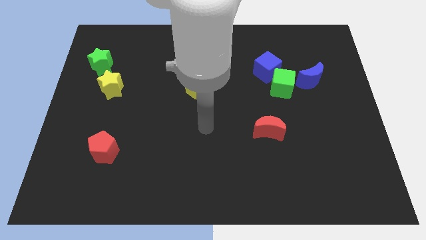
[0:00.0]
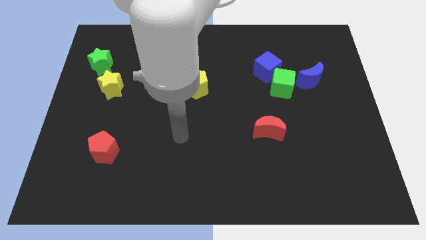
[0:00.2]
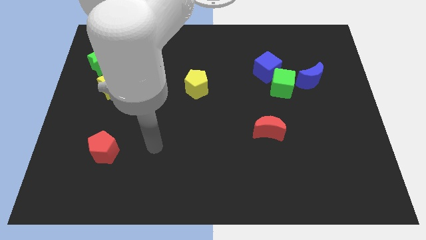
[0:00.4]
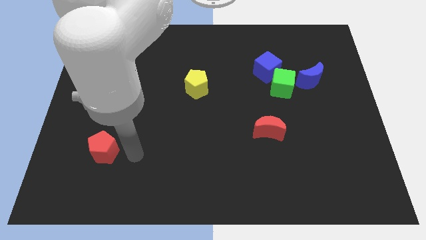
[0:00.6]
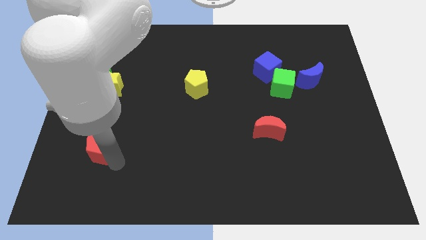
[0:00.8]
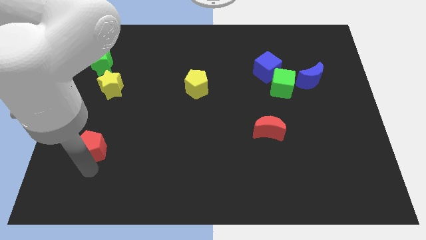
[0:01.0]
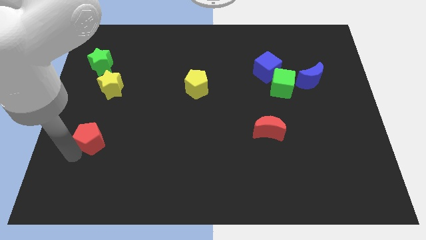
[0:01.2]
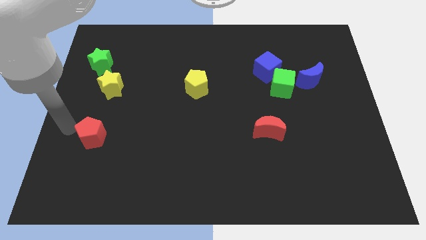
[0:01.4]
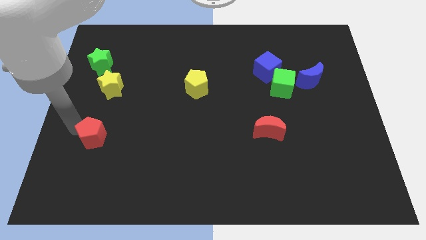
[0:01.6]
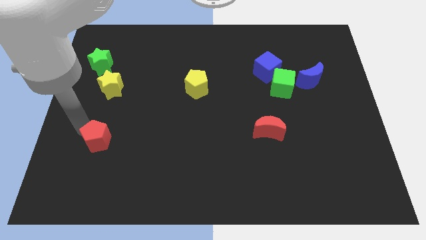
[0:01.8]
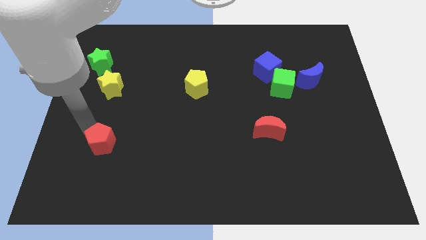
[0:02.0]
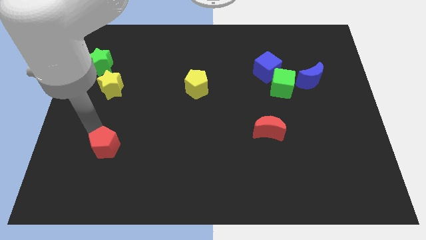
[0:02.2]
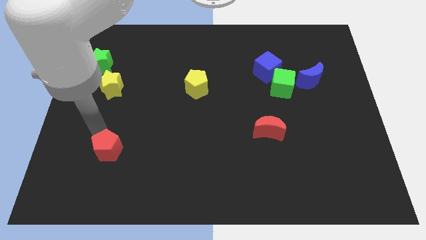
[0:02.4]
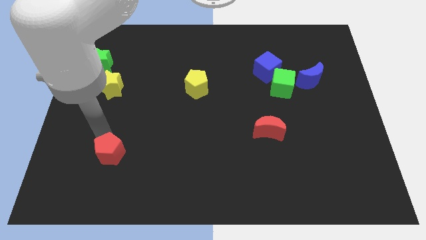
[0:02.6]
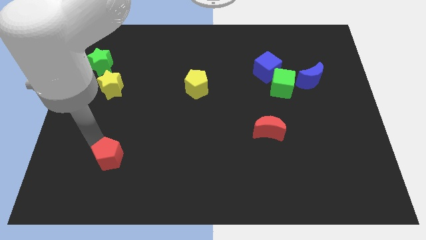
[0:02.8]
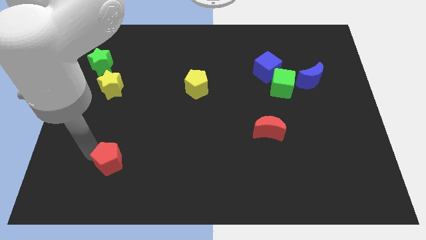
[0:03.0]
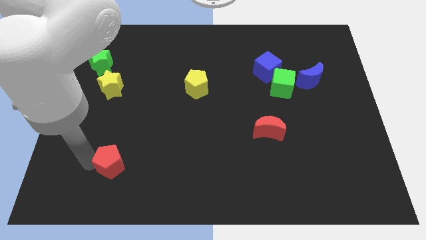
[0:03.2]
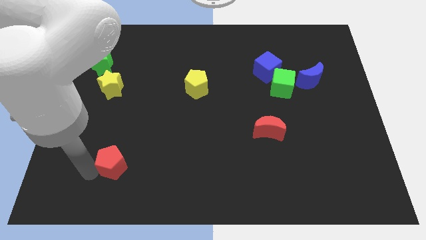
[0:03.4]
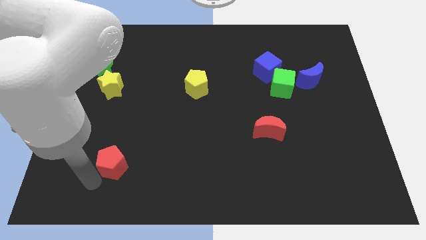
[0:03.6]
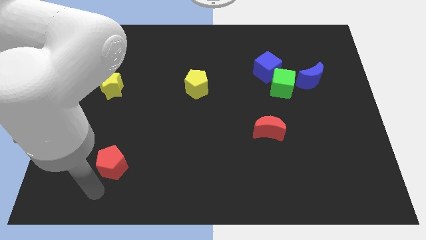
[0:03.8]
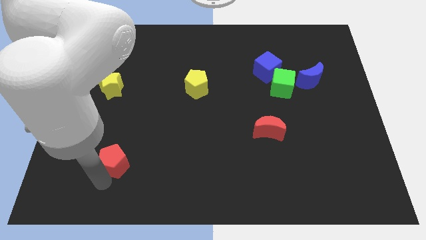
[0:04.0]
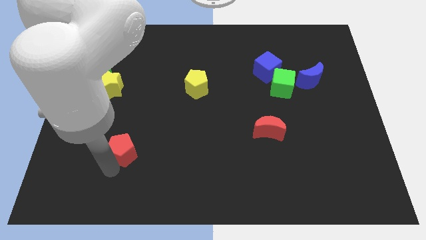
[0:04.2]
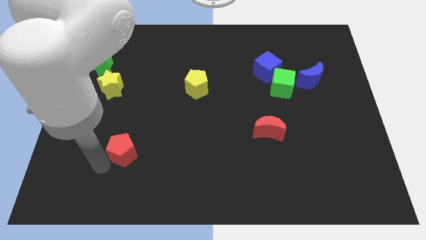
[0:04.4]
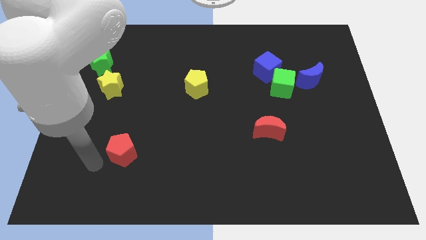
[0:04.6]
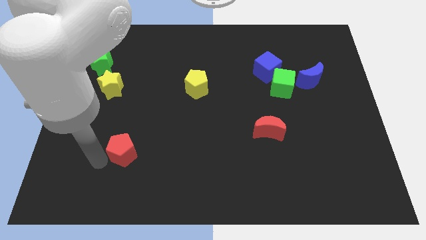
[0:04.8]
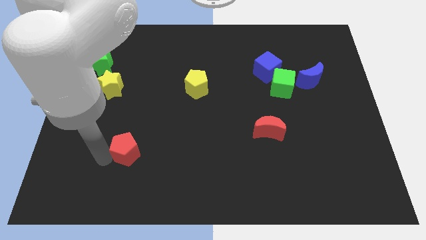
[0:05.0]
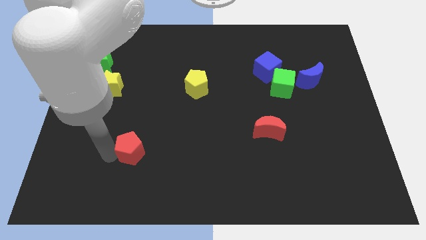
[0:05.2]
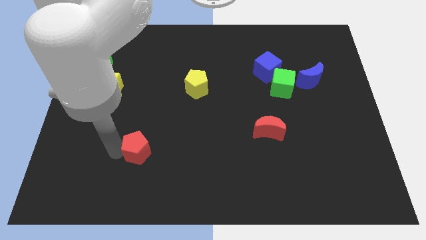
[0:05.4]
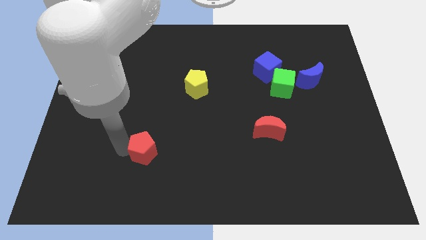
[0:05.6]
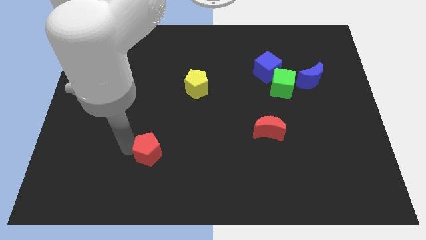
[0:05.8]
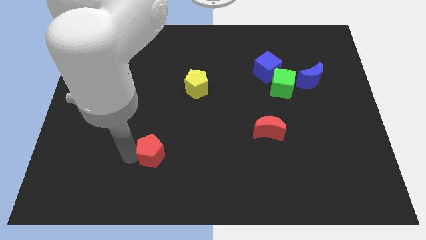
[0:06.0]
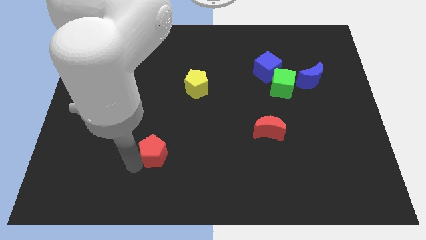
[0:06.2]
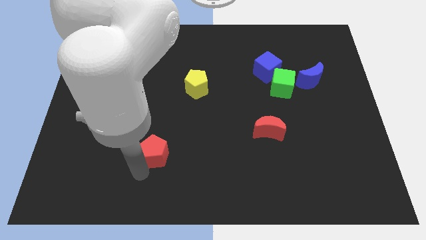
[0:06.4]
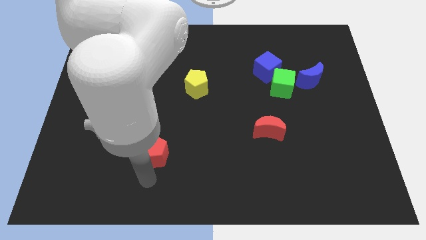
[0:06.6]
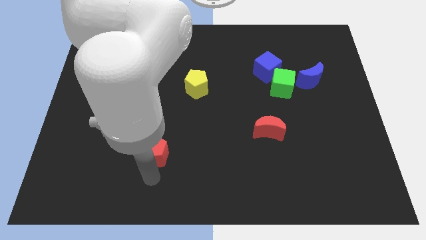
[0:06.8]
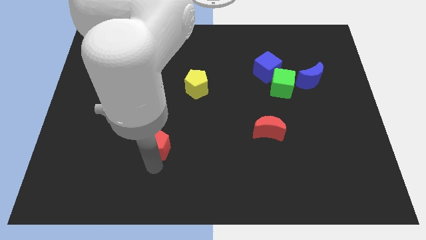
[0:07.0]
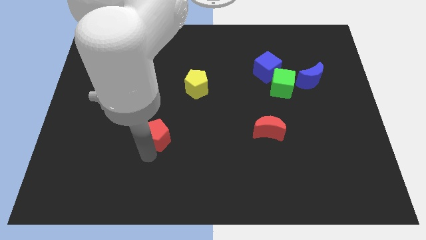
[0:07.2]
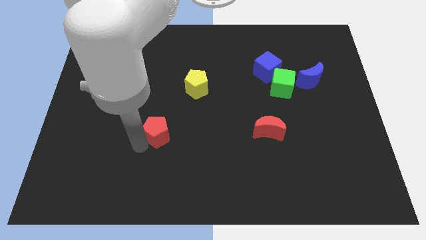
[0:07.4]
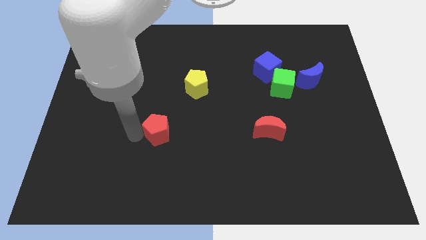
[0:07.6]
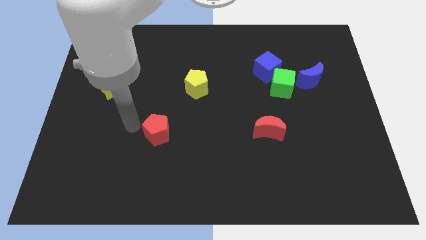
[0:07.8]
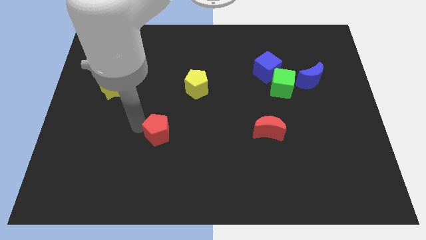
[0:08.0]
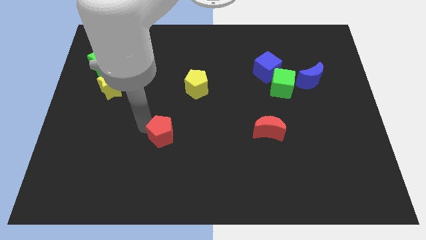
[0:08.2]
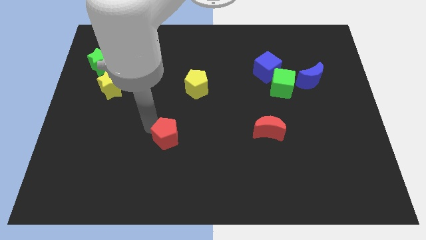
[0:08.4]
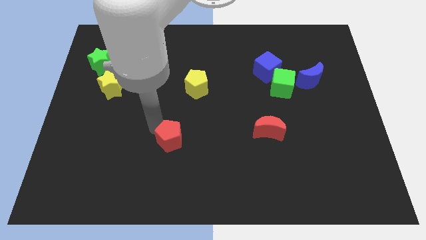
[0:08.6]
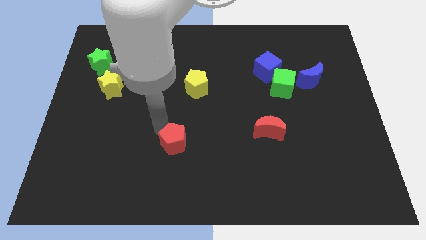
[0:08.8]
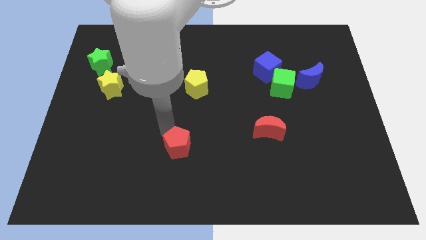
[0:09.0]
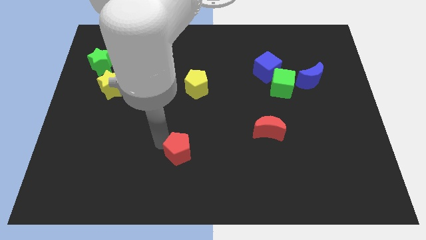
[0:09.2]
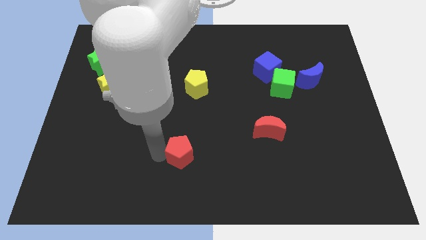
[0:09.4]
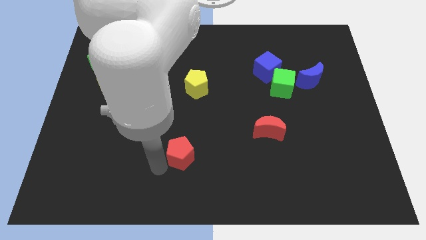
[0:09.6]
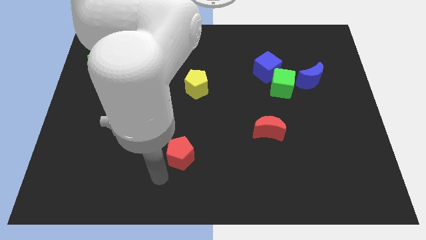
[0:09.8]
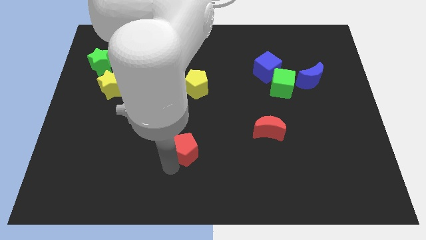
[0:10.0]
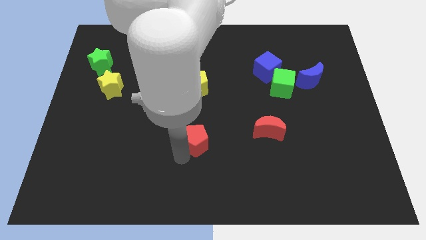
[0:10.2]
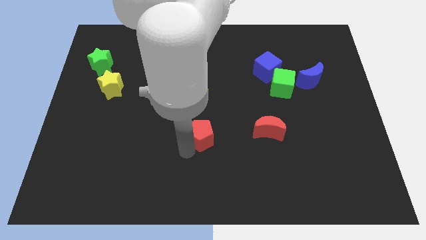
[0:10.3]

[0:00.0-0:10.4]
slide the red pentagon to the left side of the red moon

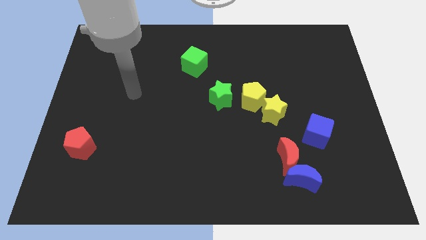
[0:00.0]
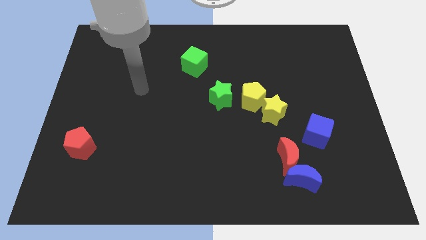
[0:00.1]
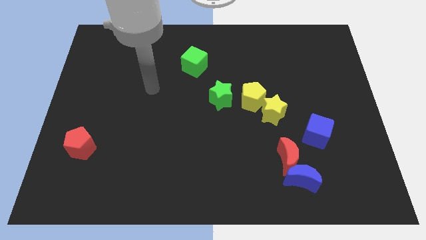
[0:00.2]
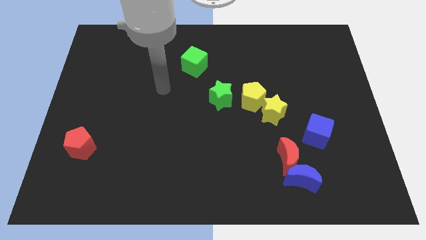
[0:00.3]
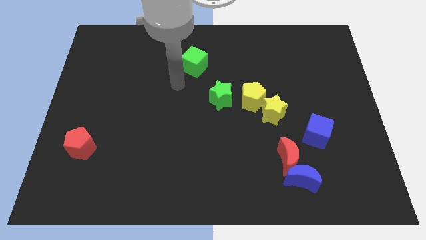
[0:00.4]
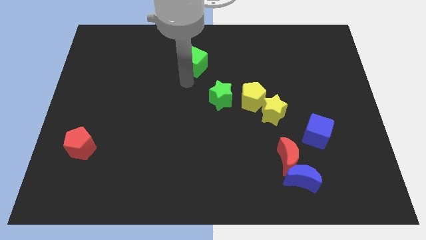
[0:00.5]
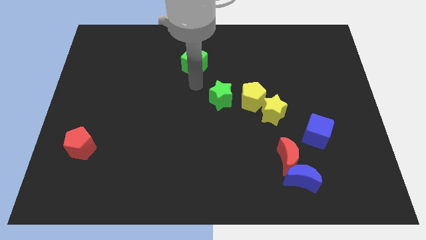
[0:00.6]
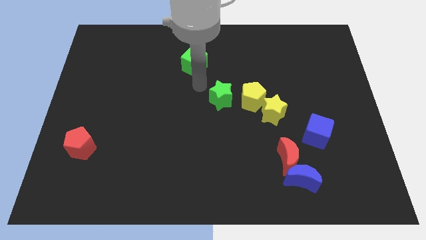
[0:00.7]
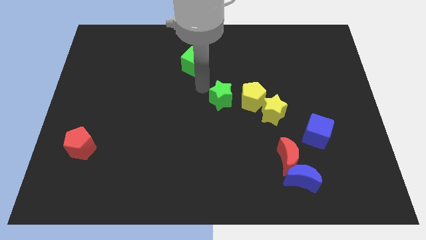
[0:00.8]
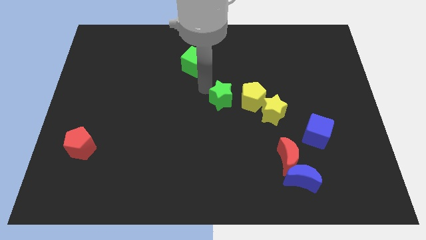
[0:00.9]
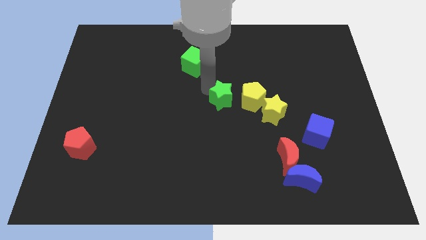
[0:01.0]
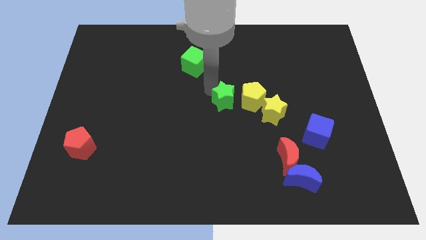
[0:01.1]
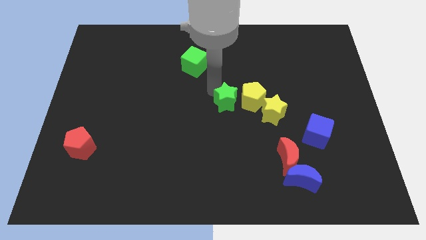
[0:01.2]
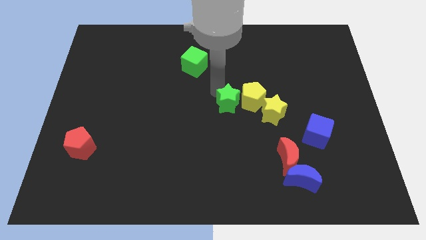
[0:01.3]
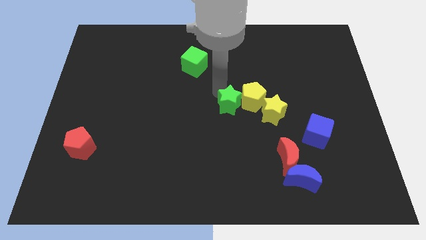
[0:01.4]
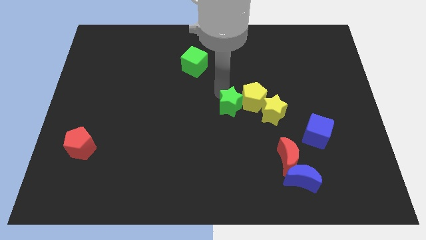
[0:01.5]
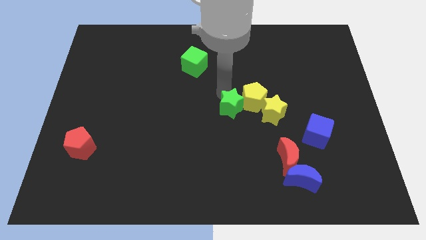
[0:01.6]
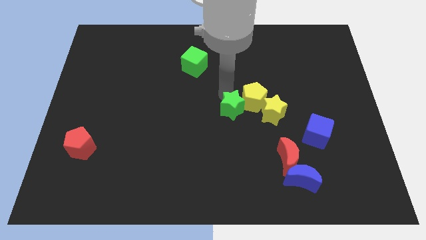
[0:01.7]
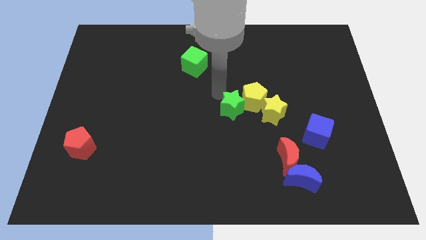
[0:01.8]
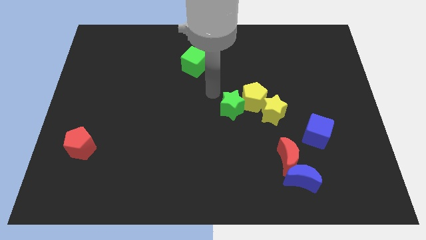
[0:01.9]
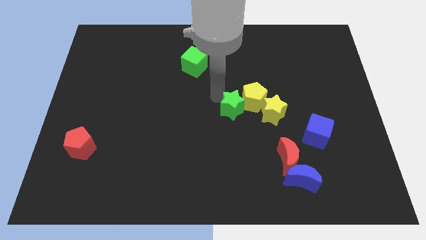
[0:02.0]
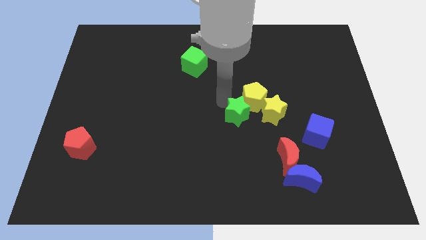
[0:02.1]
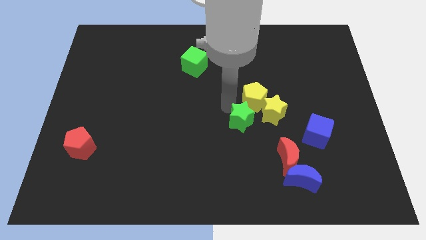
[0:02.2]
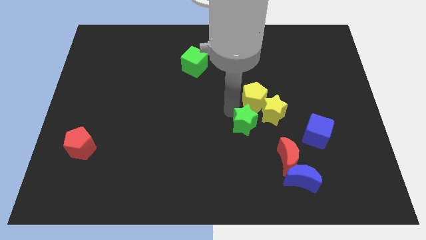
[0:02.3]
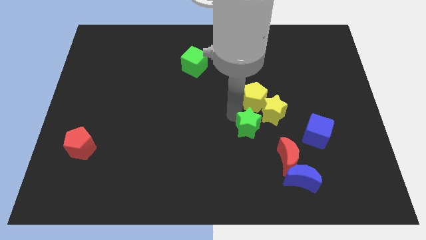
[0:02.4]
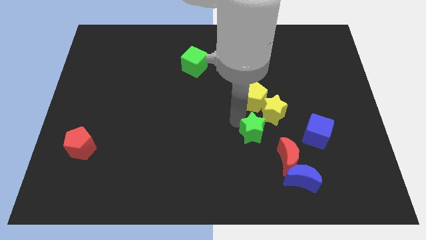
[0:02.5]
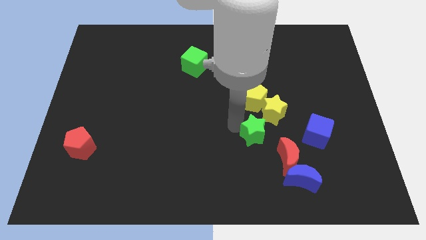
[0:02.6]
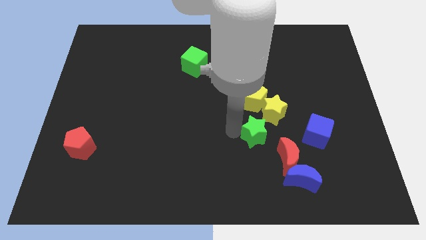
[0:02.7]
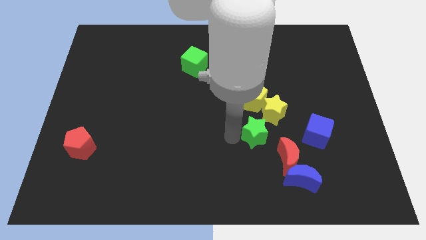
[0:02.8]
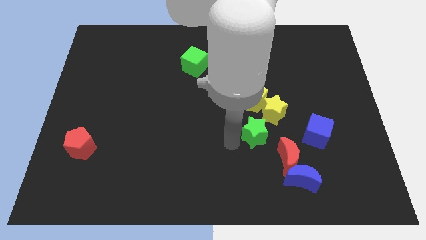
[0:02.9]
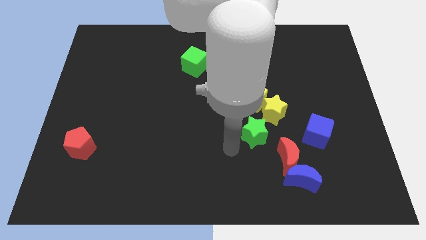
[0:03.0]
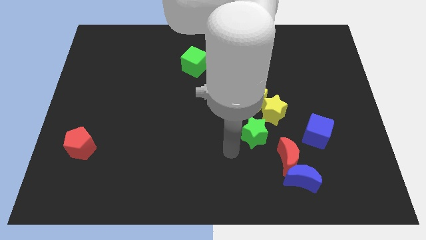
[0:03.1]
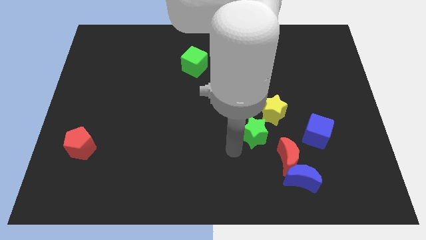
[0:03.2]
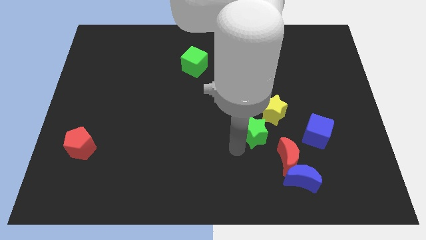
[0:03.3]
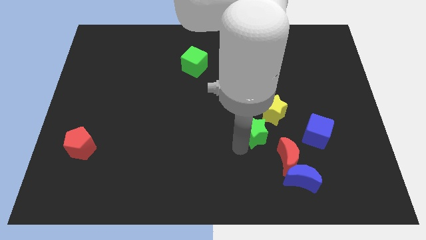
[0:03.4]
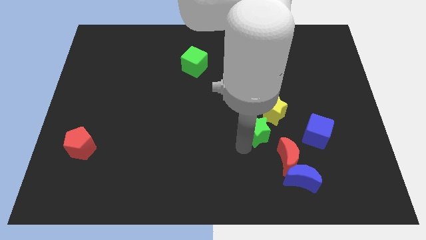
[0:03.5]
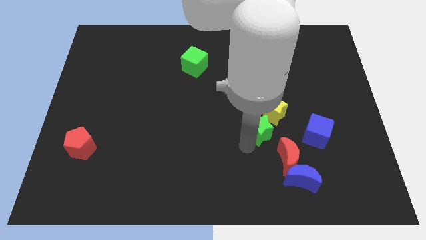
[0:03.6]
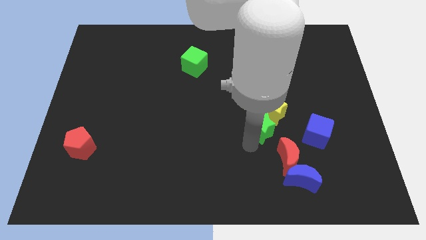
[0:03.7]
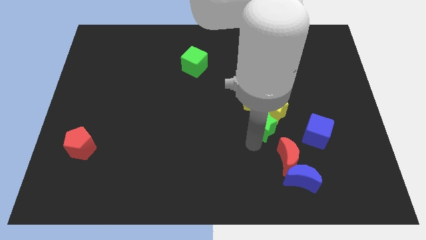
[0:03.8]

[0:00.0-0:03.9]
slide the green star to the bottom right of the yellow pentagon
